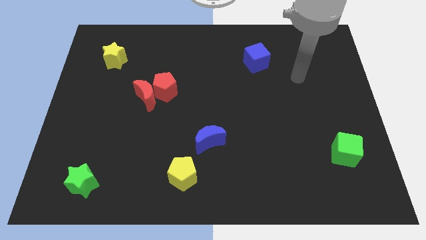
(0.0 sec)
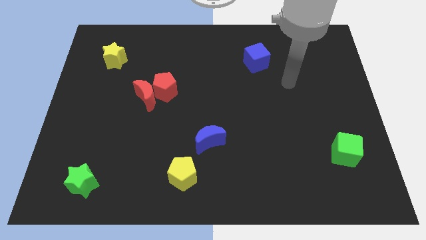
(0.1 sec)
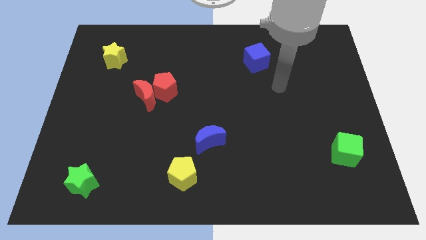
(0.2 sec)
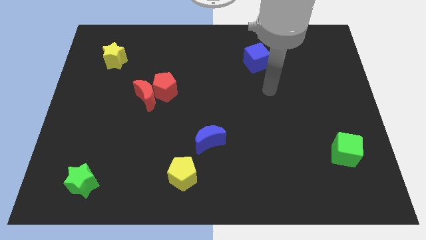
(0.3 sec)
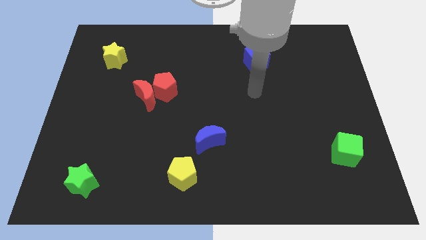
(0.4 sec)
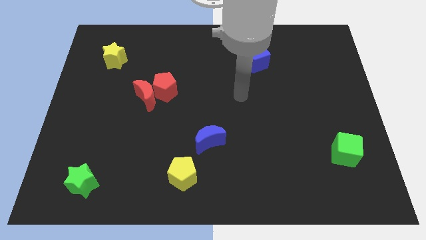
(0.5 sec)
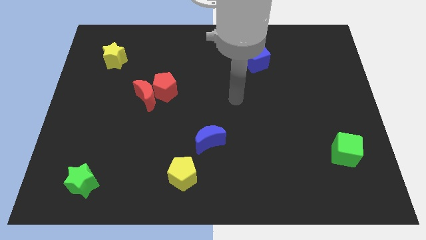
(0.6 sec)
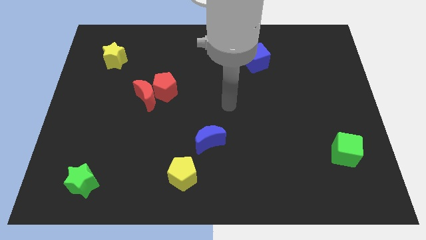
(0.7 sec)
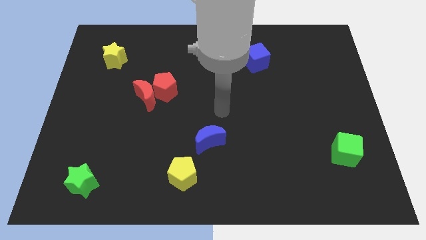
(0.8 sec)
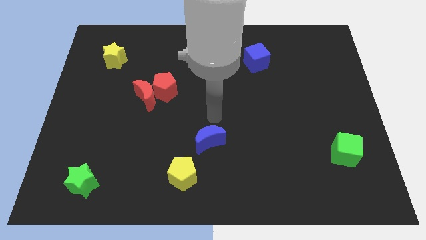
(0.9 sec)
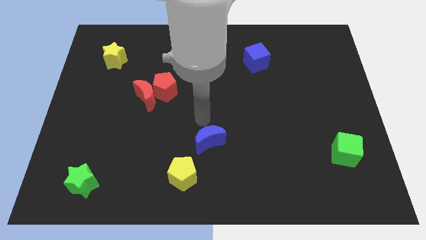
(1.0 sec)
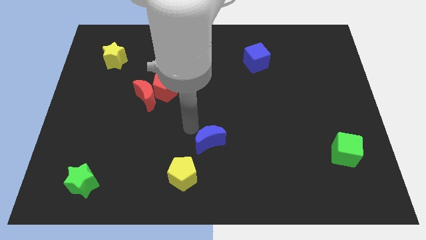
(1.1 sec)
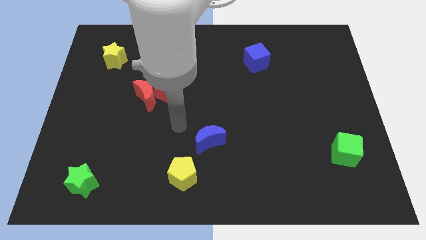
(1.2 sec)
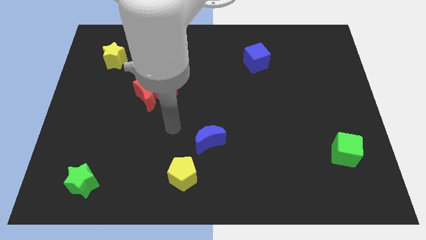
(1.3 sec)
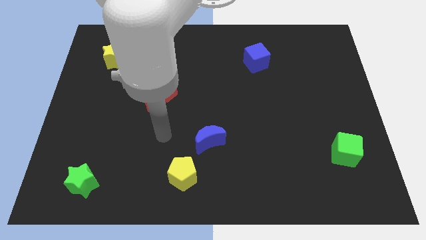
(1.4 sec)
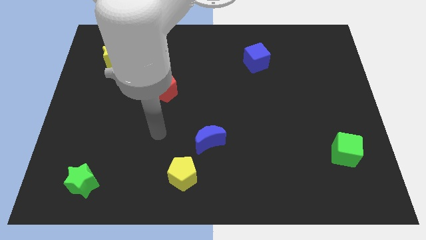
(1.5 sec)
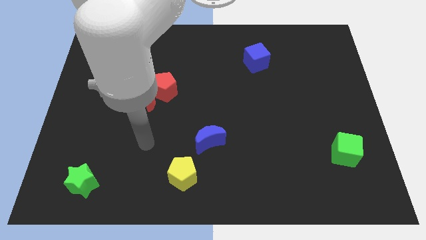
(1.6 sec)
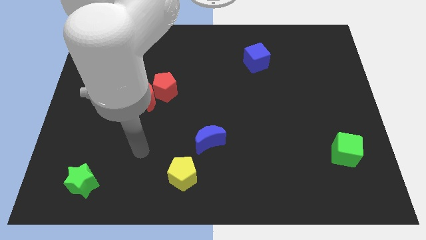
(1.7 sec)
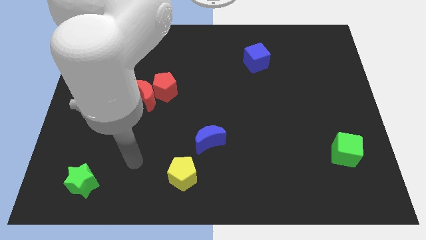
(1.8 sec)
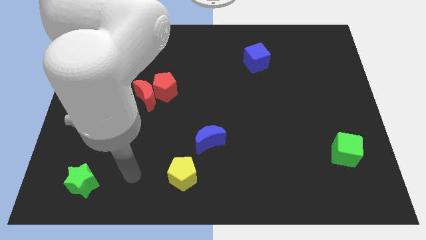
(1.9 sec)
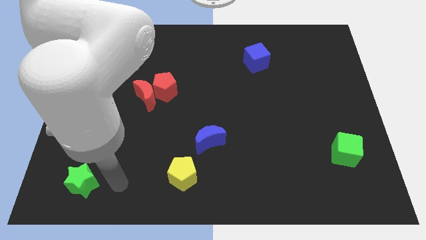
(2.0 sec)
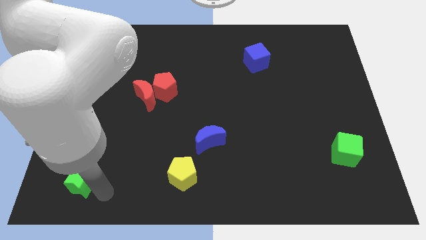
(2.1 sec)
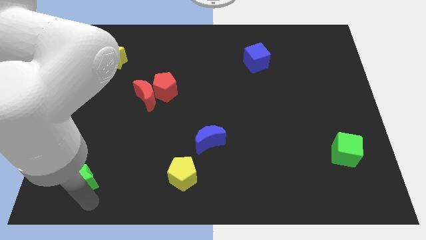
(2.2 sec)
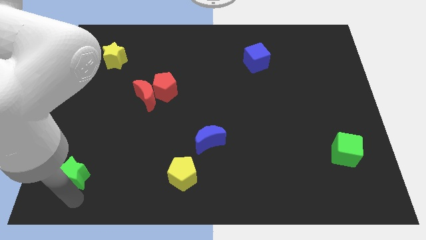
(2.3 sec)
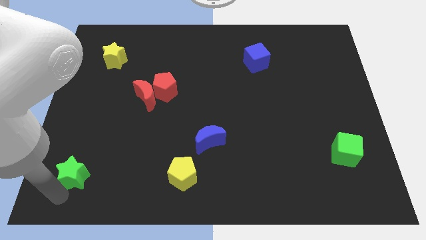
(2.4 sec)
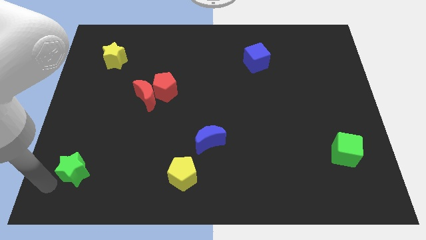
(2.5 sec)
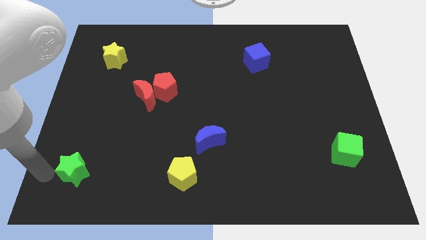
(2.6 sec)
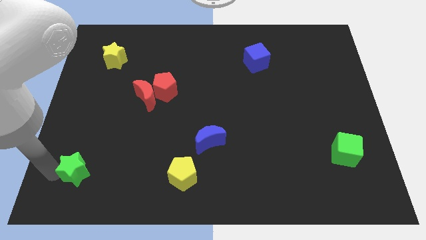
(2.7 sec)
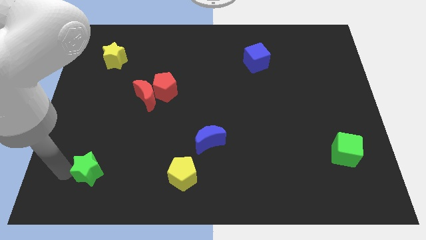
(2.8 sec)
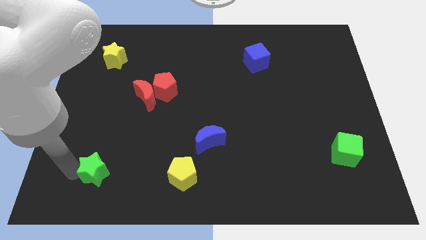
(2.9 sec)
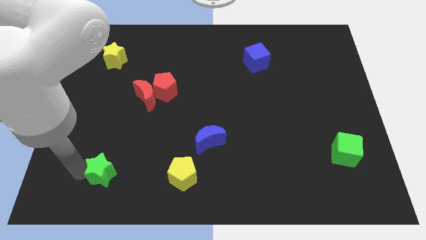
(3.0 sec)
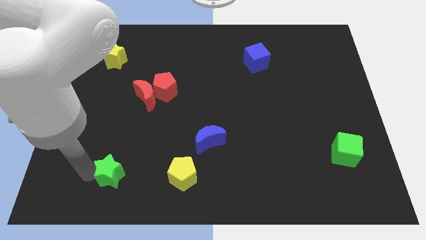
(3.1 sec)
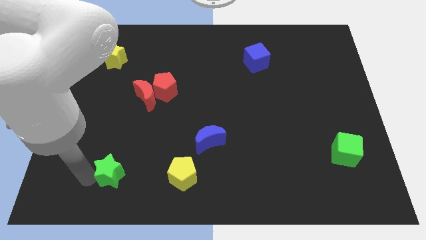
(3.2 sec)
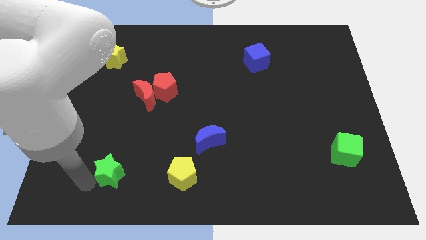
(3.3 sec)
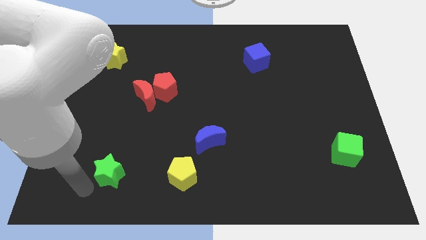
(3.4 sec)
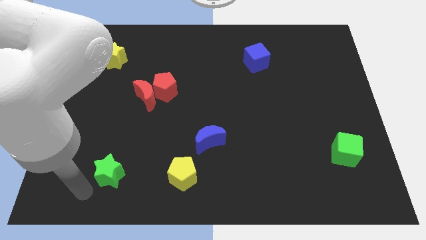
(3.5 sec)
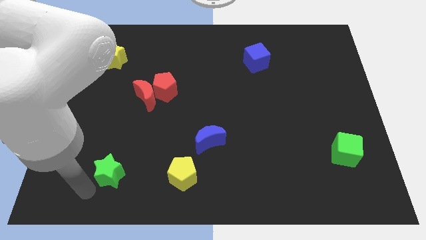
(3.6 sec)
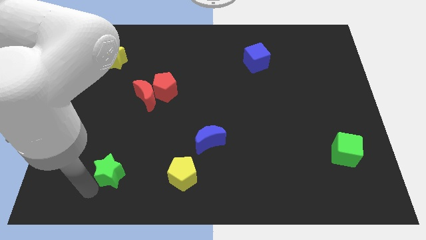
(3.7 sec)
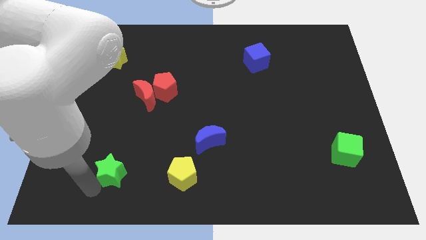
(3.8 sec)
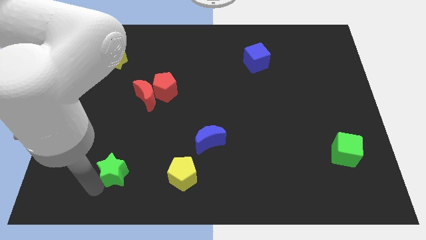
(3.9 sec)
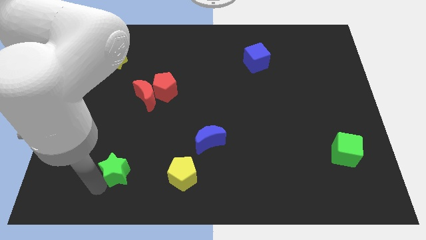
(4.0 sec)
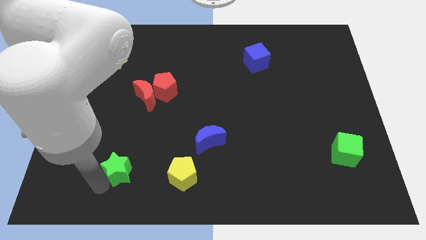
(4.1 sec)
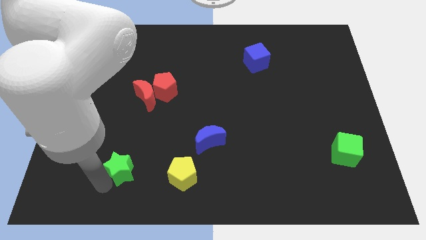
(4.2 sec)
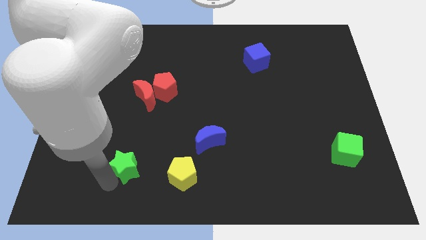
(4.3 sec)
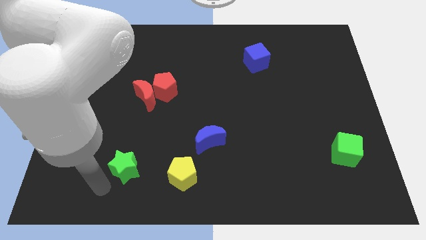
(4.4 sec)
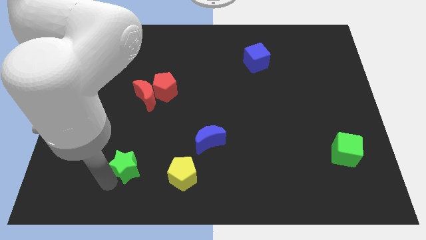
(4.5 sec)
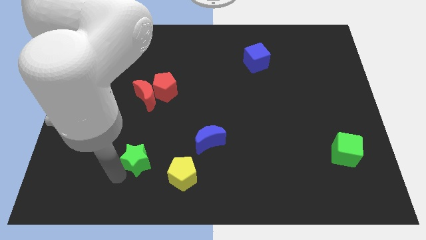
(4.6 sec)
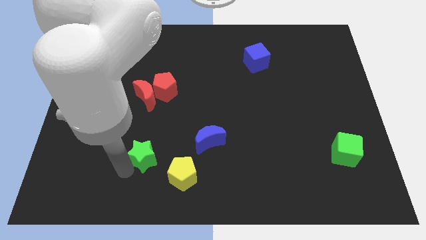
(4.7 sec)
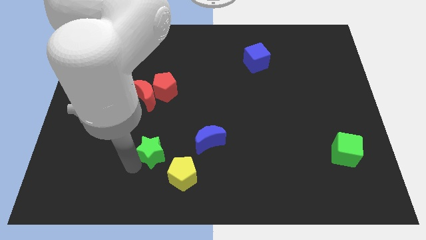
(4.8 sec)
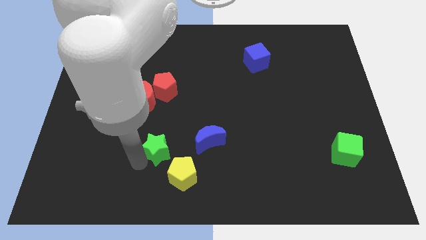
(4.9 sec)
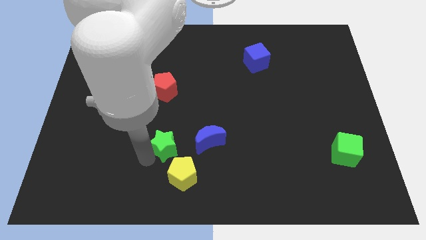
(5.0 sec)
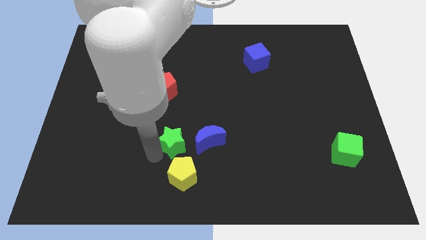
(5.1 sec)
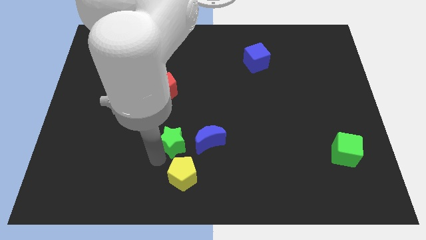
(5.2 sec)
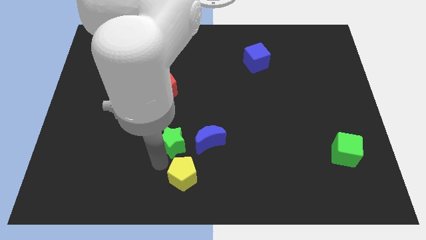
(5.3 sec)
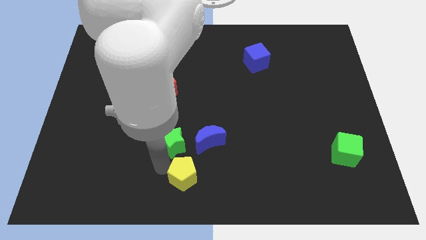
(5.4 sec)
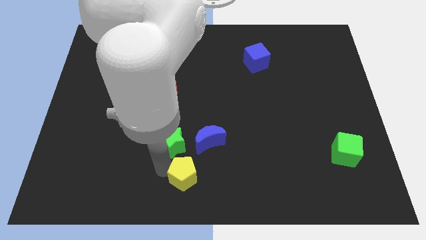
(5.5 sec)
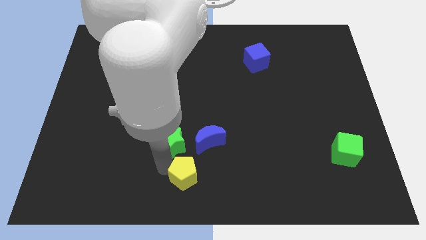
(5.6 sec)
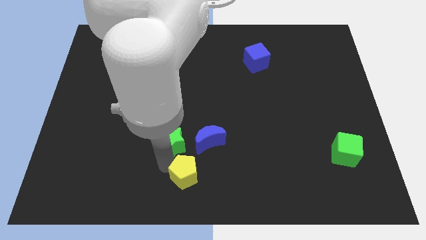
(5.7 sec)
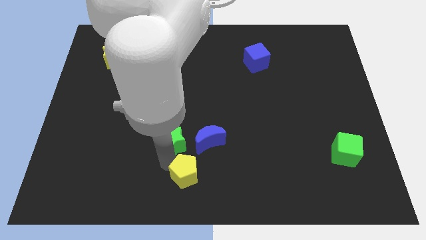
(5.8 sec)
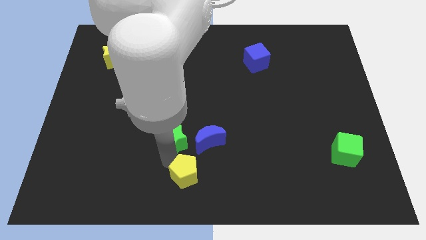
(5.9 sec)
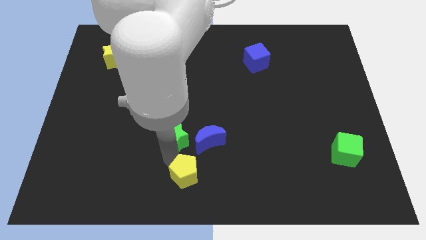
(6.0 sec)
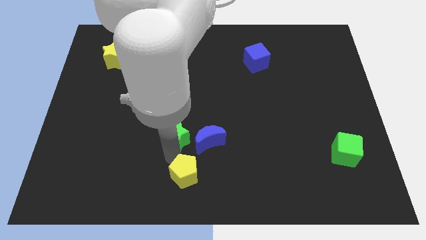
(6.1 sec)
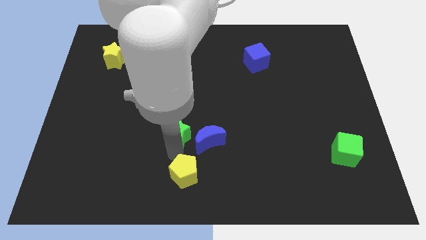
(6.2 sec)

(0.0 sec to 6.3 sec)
push the green star to the center of the board

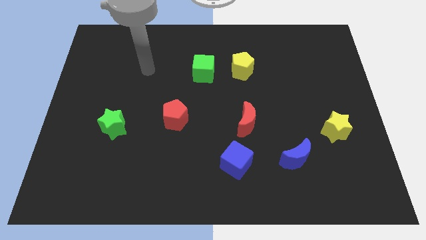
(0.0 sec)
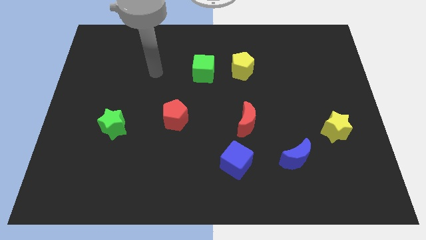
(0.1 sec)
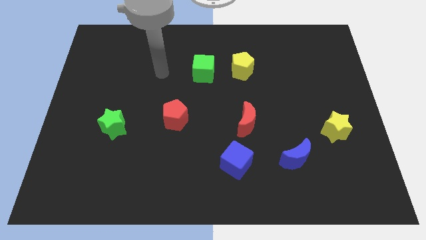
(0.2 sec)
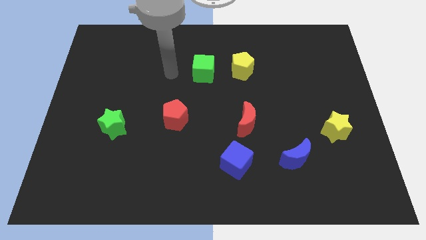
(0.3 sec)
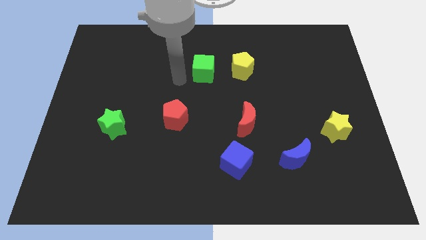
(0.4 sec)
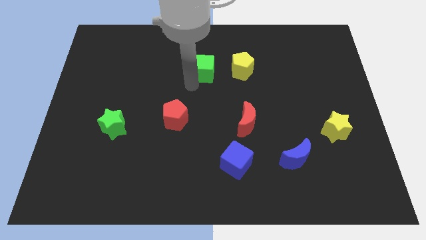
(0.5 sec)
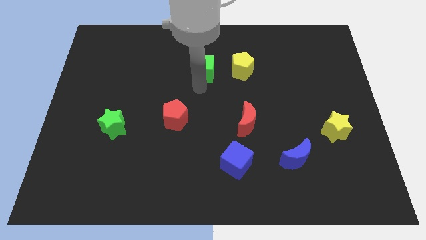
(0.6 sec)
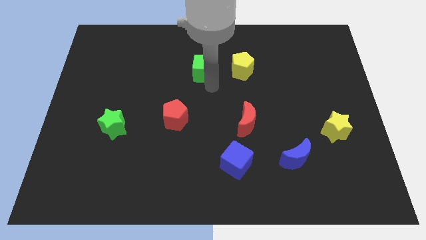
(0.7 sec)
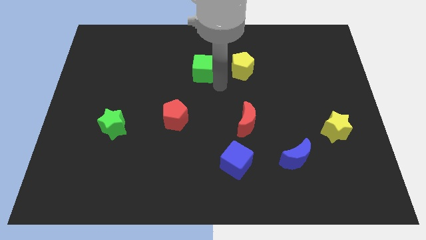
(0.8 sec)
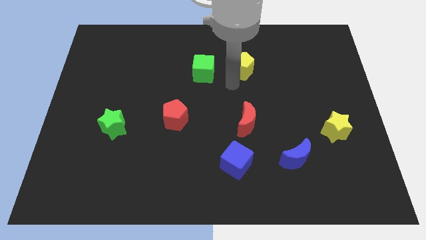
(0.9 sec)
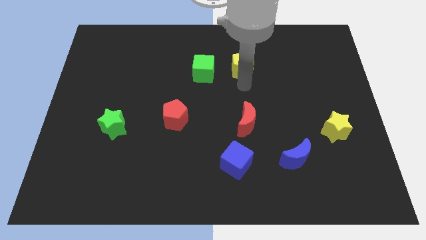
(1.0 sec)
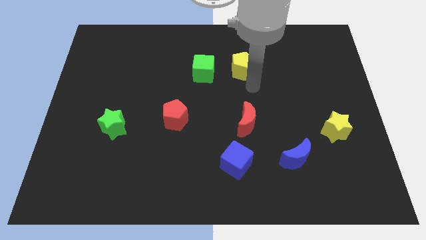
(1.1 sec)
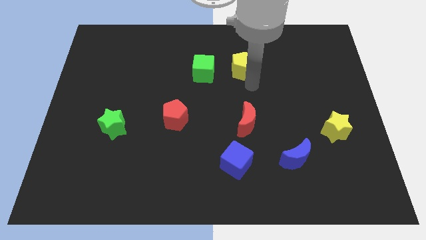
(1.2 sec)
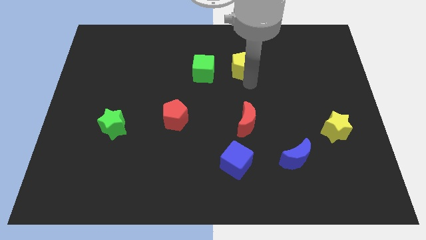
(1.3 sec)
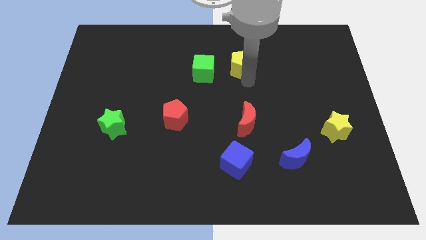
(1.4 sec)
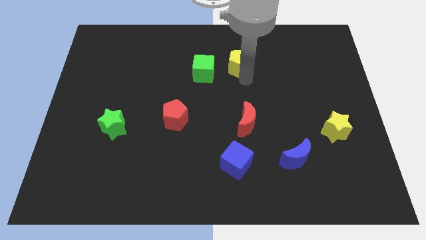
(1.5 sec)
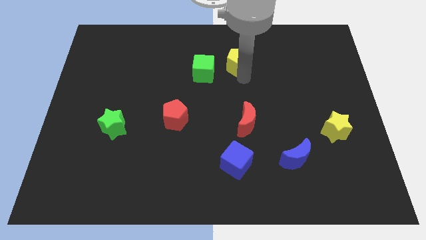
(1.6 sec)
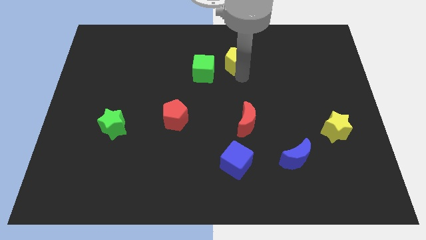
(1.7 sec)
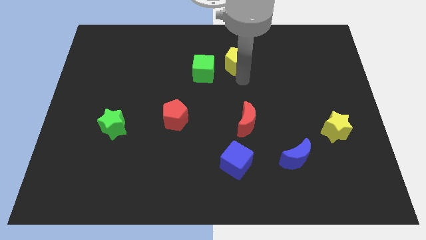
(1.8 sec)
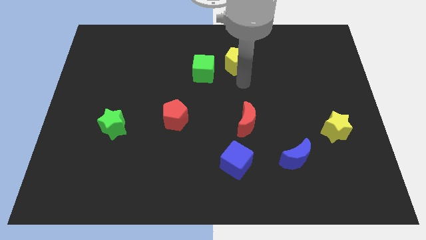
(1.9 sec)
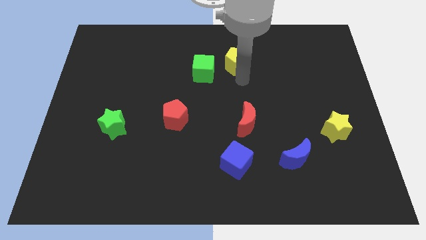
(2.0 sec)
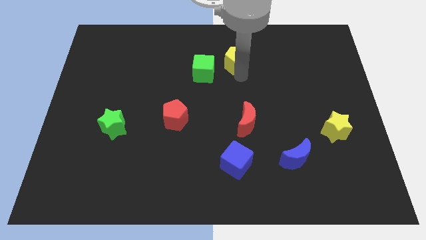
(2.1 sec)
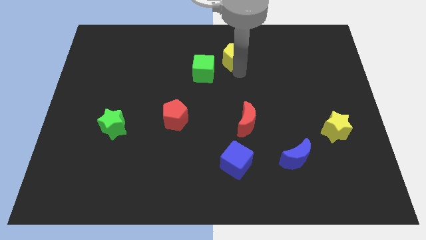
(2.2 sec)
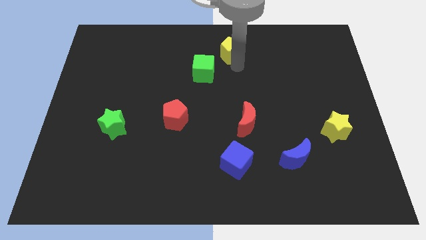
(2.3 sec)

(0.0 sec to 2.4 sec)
slide the yellow pentagon to the towards your base
